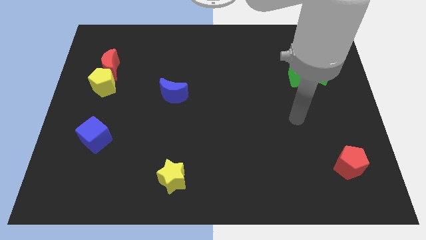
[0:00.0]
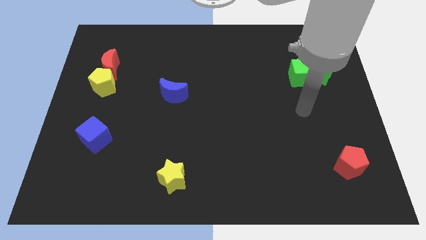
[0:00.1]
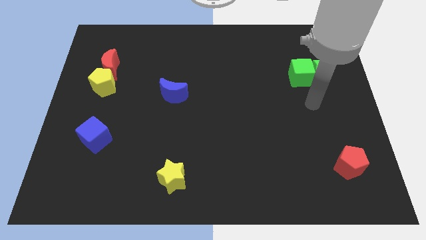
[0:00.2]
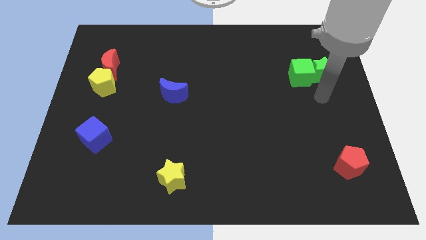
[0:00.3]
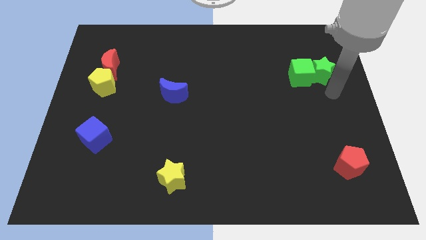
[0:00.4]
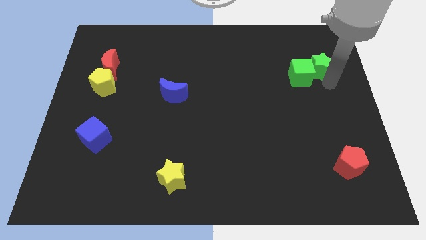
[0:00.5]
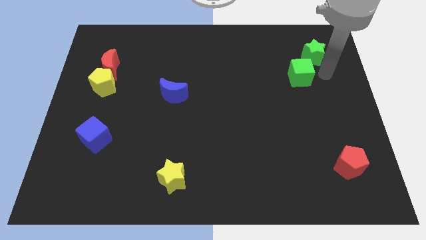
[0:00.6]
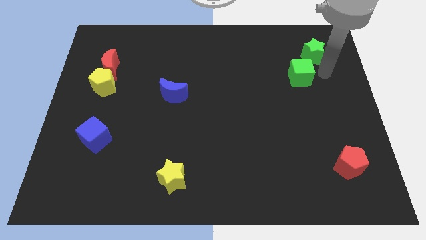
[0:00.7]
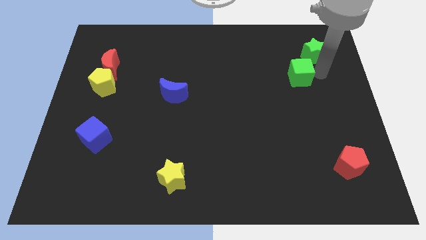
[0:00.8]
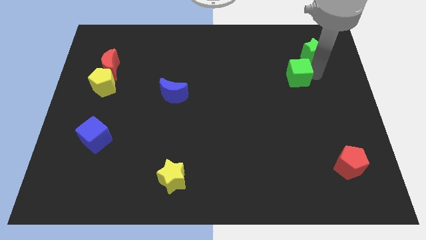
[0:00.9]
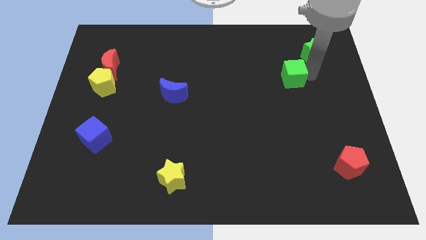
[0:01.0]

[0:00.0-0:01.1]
pull the green cube apart from the green star

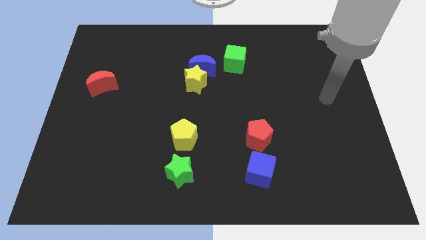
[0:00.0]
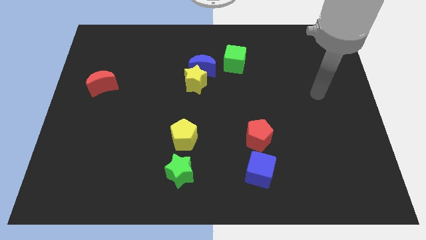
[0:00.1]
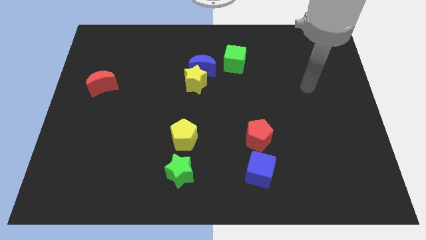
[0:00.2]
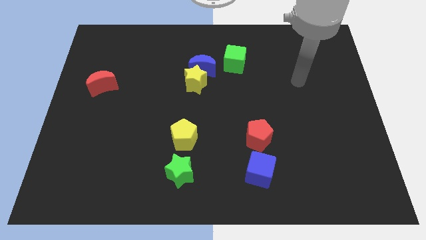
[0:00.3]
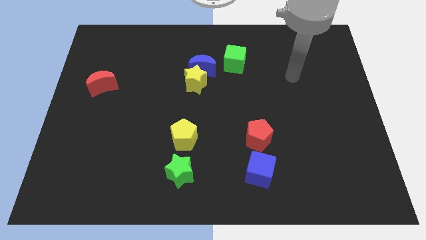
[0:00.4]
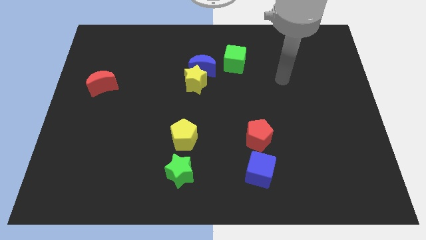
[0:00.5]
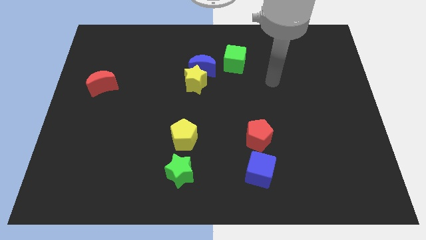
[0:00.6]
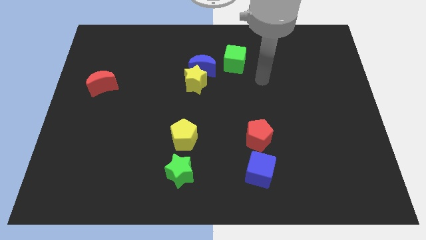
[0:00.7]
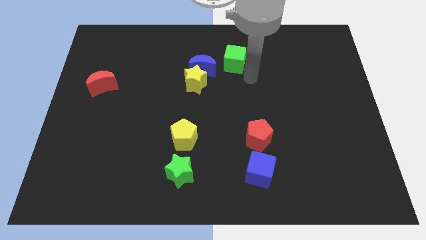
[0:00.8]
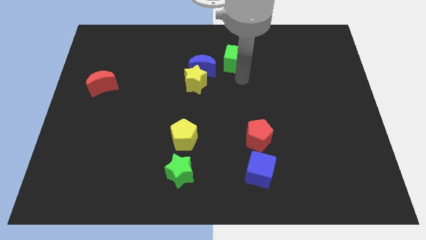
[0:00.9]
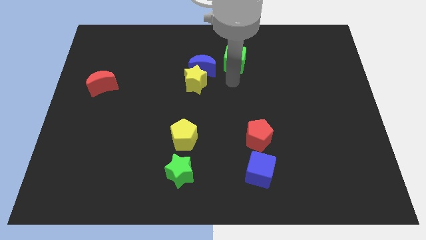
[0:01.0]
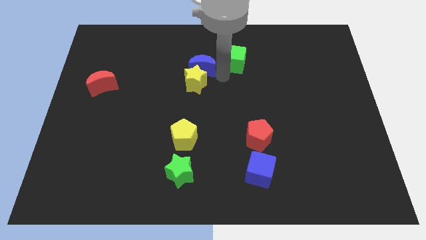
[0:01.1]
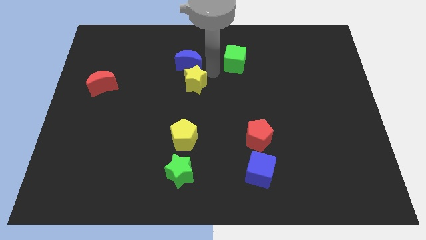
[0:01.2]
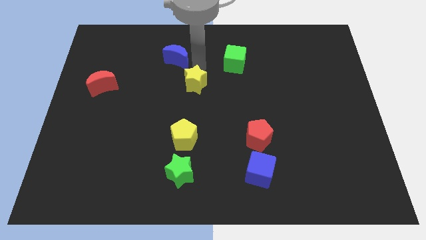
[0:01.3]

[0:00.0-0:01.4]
move the yellow star away from the blue moon

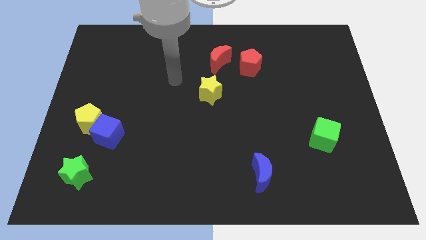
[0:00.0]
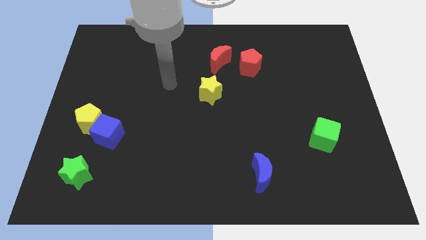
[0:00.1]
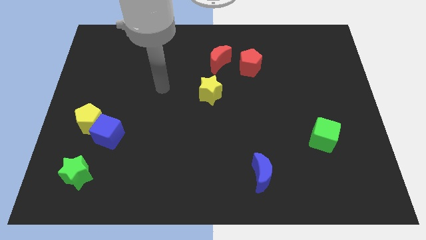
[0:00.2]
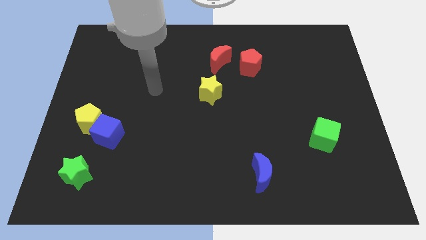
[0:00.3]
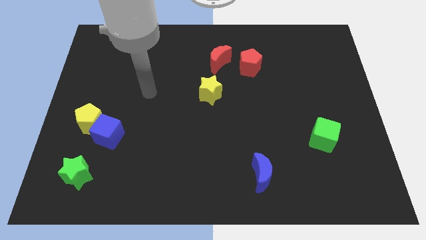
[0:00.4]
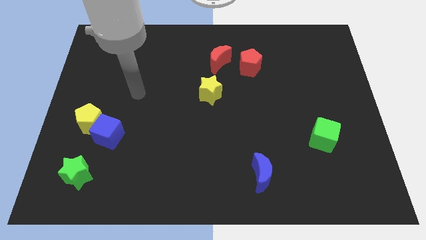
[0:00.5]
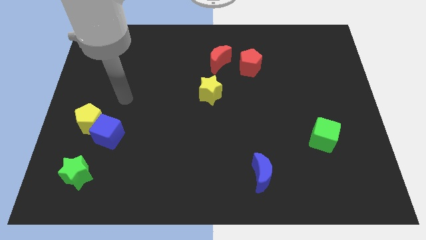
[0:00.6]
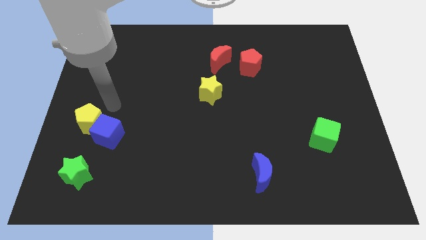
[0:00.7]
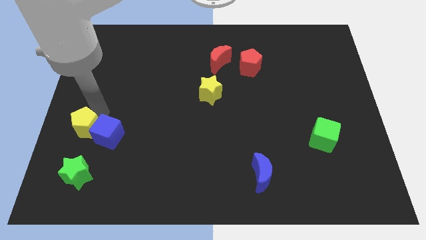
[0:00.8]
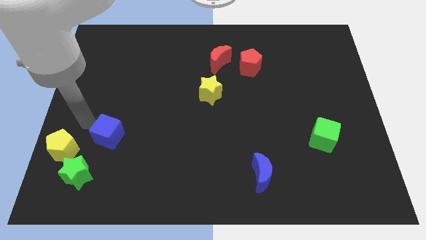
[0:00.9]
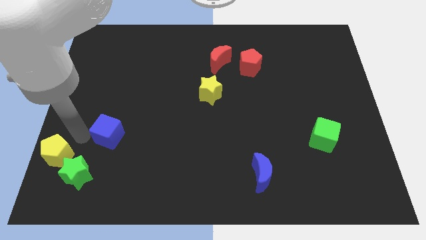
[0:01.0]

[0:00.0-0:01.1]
pull the blue cube apart from the yellow pentagon

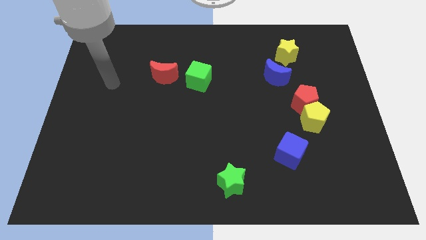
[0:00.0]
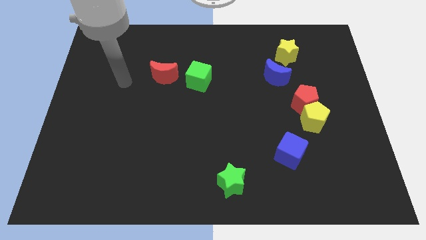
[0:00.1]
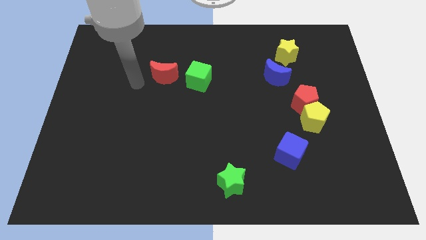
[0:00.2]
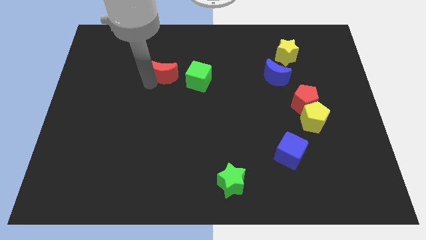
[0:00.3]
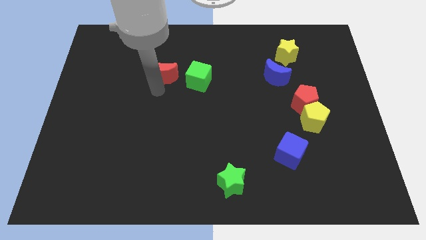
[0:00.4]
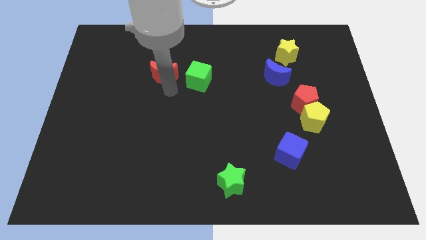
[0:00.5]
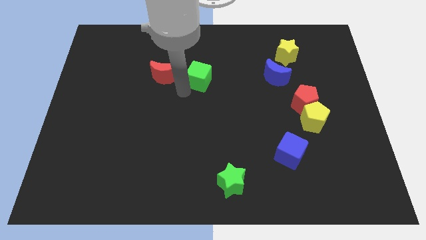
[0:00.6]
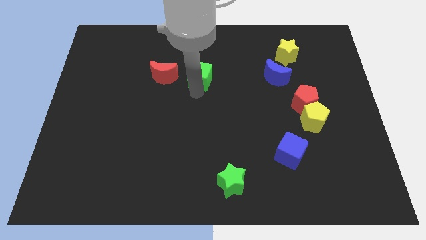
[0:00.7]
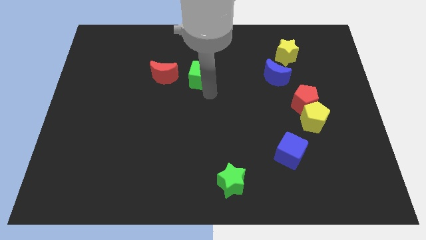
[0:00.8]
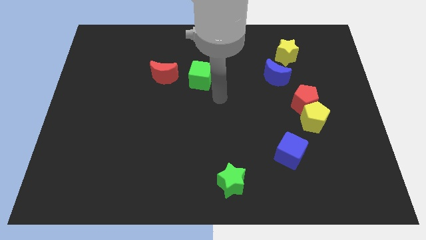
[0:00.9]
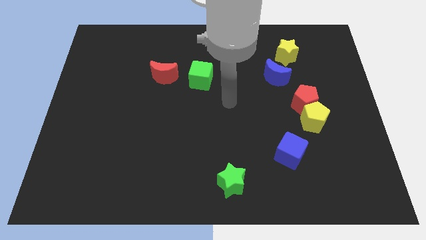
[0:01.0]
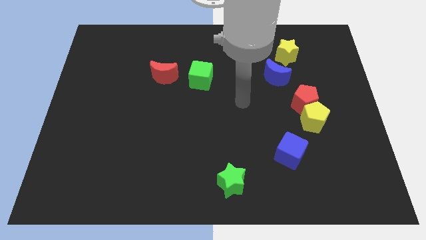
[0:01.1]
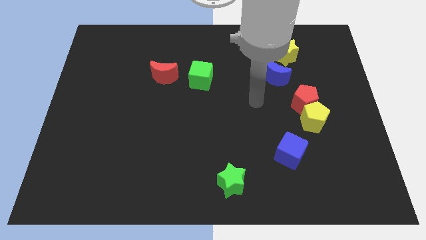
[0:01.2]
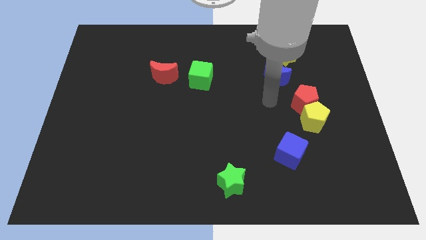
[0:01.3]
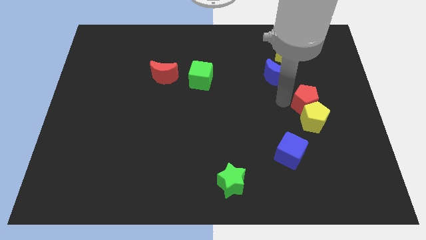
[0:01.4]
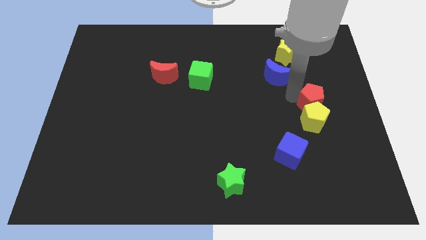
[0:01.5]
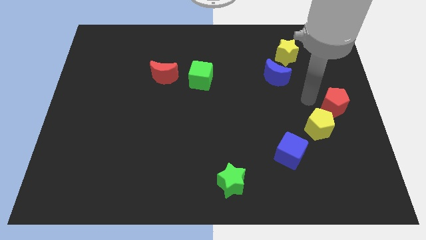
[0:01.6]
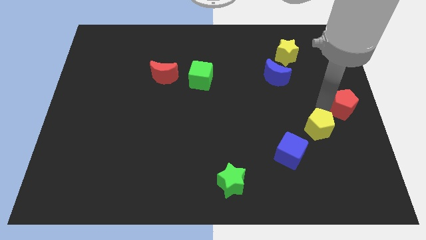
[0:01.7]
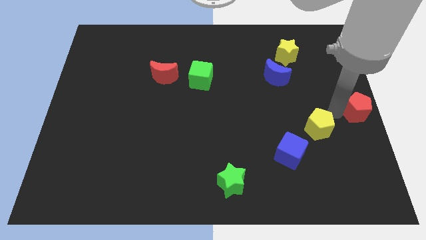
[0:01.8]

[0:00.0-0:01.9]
move the yellow pentagon away from the red pentagon

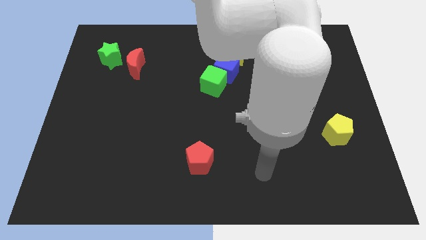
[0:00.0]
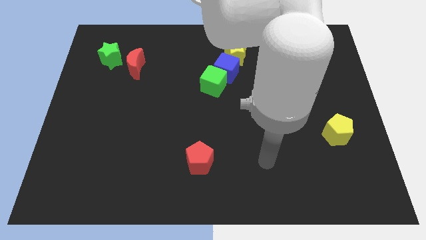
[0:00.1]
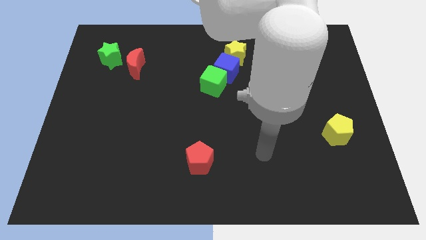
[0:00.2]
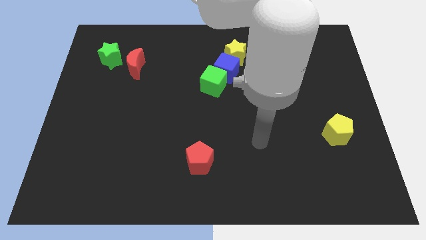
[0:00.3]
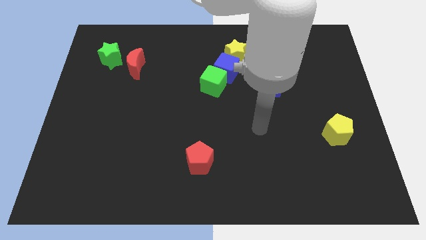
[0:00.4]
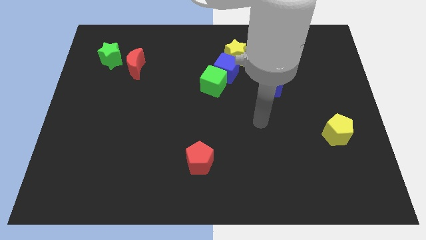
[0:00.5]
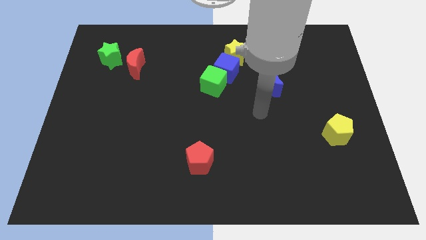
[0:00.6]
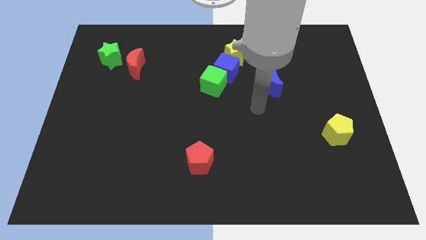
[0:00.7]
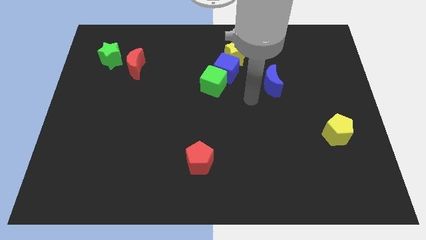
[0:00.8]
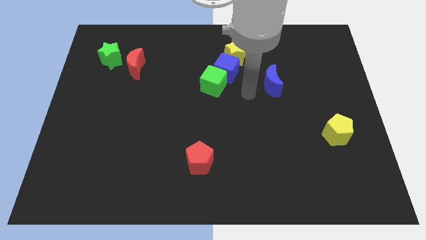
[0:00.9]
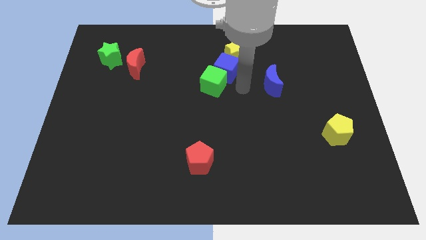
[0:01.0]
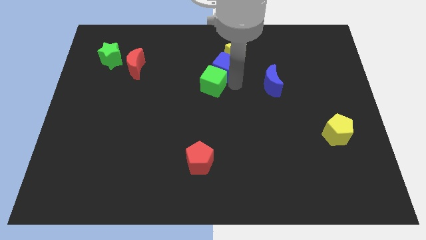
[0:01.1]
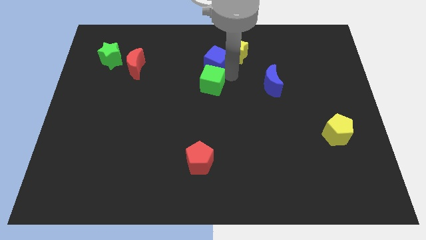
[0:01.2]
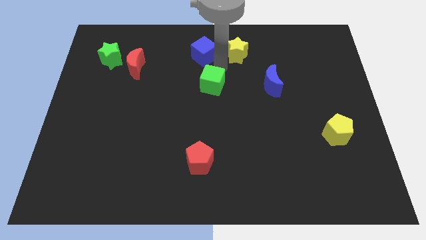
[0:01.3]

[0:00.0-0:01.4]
separate the green cube from the blue cube

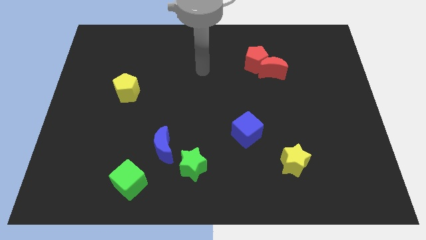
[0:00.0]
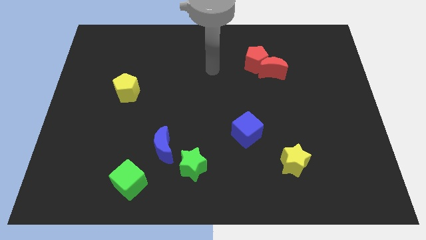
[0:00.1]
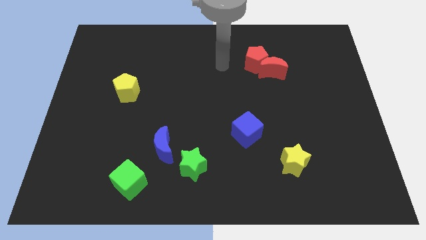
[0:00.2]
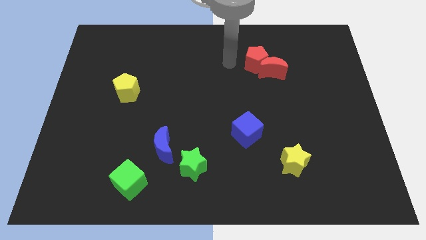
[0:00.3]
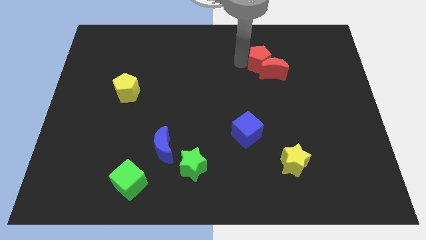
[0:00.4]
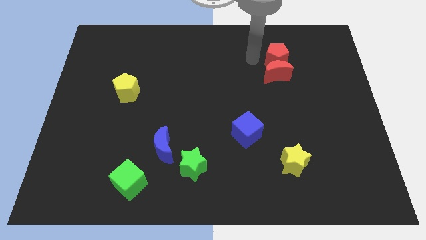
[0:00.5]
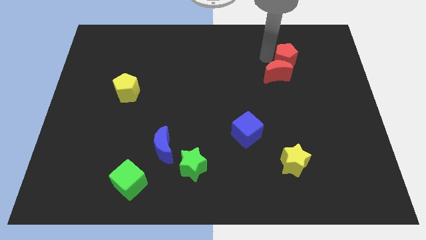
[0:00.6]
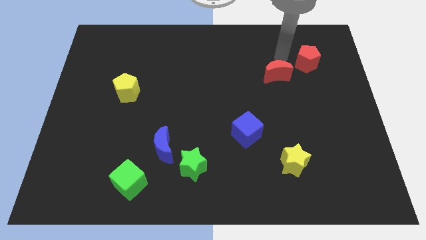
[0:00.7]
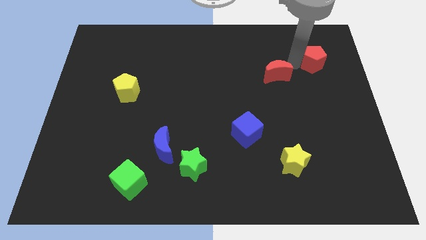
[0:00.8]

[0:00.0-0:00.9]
separate the red moon from the red pentagon

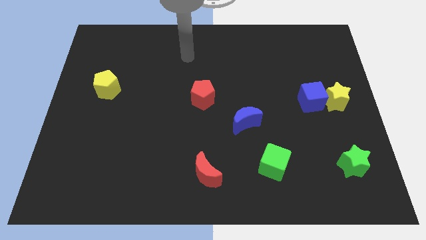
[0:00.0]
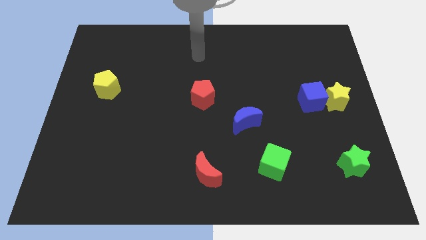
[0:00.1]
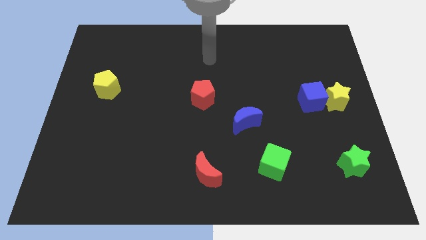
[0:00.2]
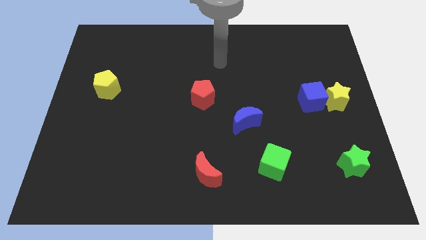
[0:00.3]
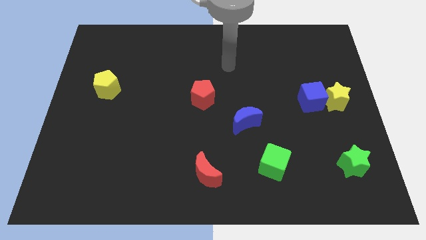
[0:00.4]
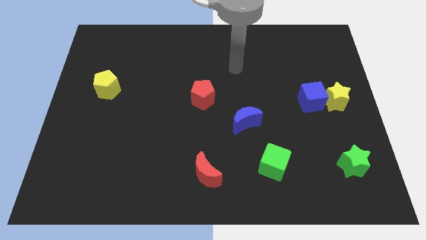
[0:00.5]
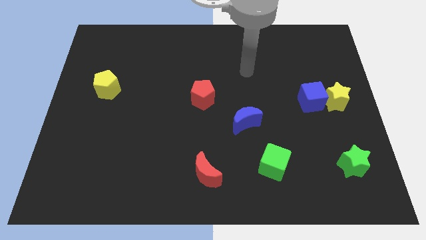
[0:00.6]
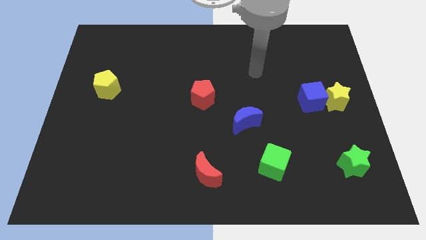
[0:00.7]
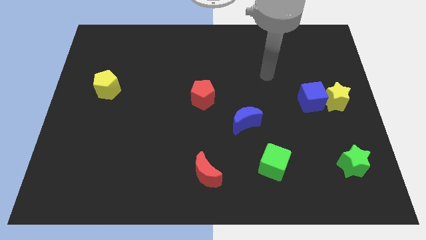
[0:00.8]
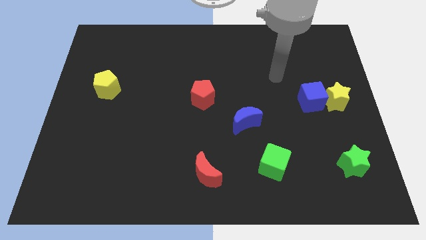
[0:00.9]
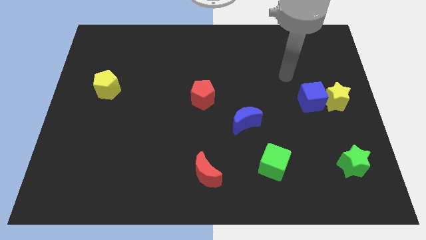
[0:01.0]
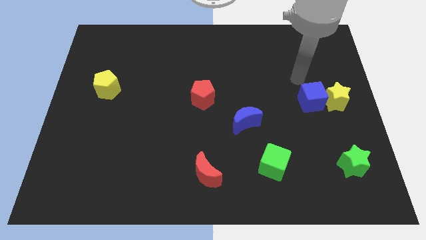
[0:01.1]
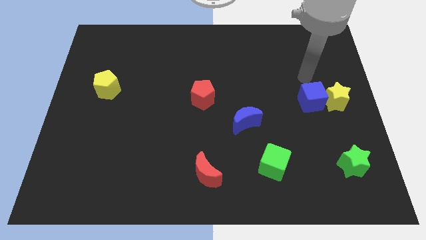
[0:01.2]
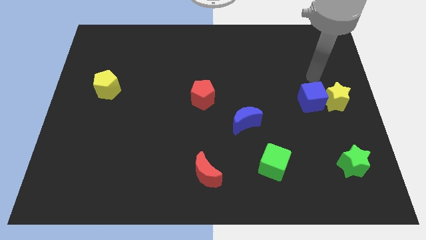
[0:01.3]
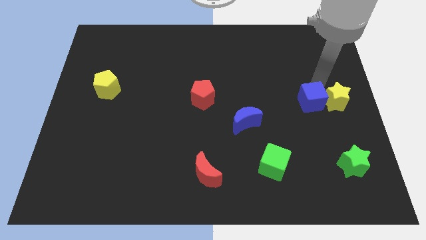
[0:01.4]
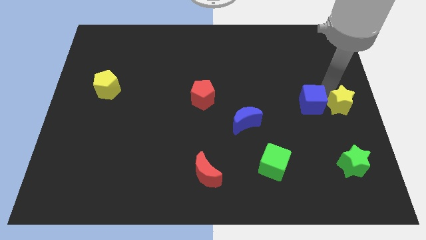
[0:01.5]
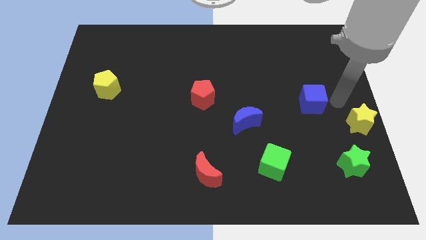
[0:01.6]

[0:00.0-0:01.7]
move the blue cube away from the yellow star
